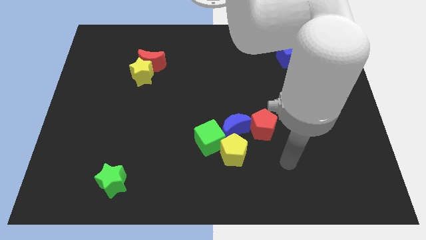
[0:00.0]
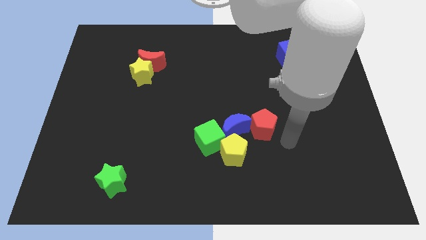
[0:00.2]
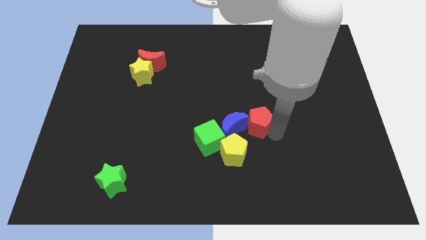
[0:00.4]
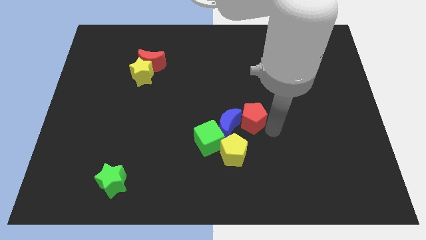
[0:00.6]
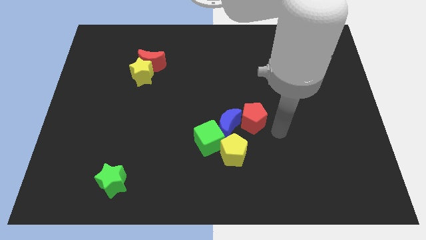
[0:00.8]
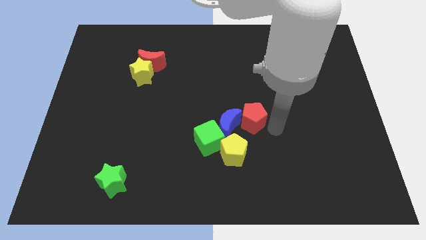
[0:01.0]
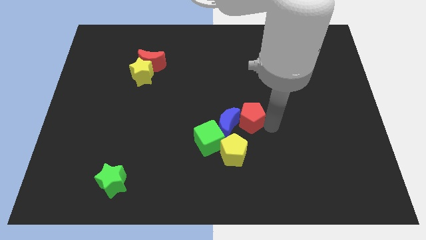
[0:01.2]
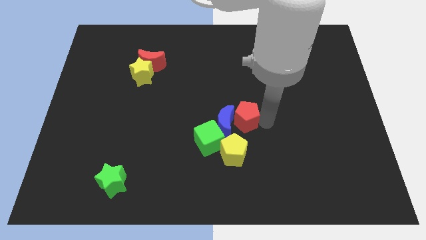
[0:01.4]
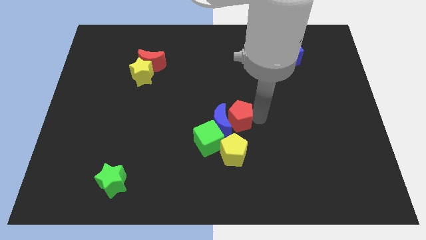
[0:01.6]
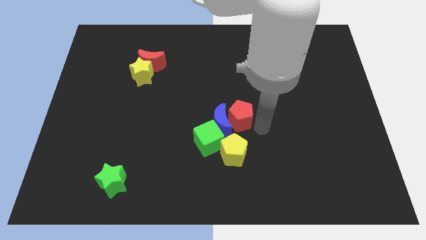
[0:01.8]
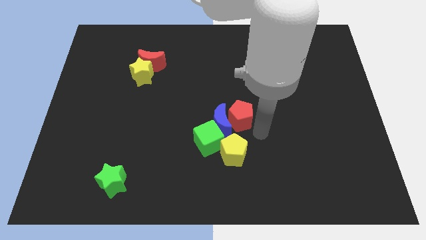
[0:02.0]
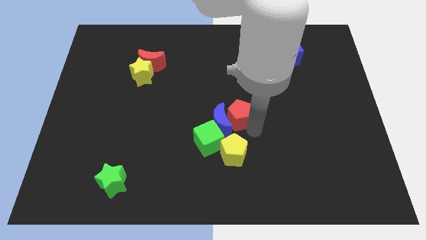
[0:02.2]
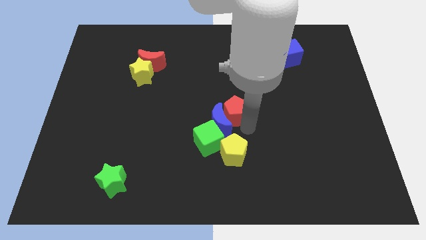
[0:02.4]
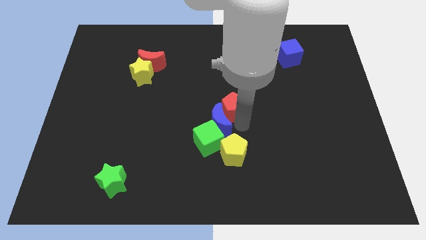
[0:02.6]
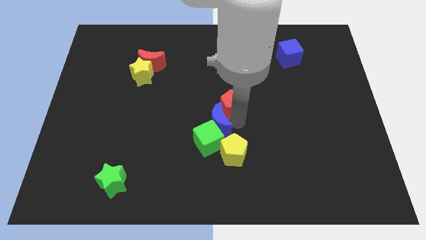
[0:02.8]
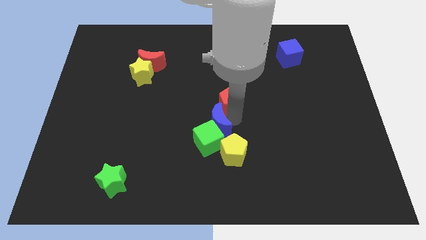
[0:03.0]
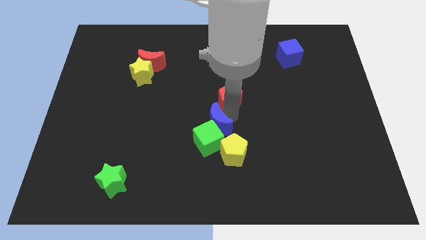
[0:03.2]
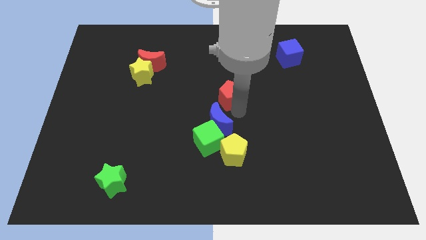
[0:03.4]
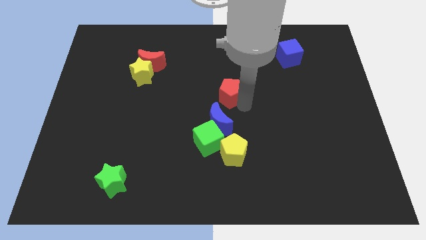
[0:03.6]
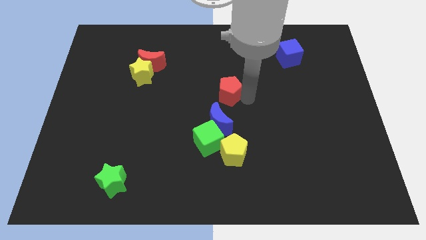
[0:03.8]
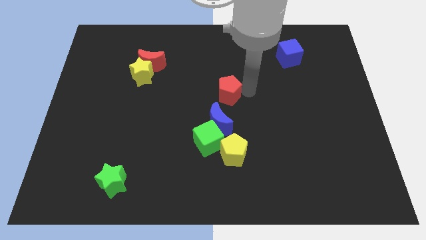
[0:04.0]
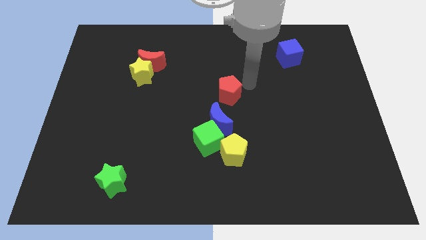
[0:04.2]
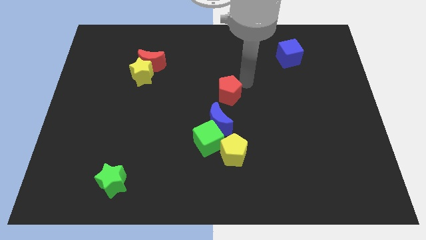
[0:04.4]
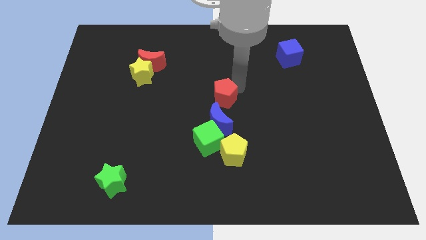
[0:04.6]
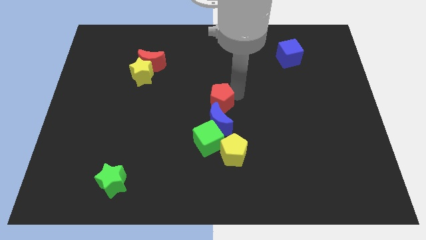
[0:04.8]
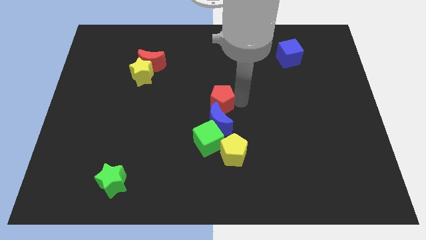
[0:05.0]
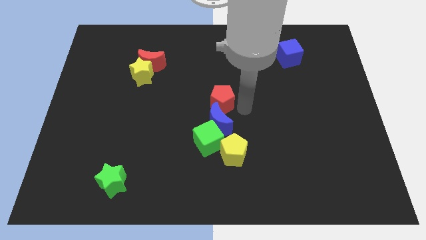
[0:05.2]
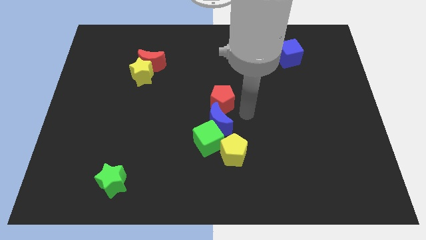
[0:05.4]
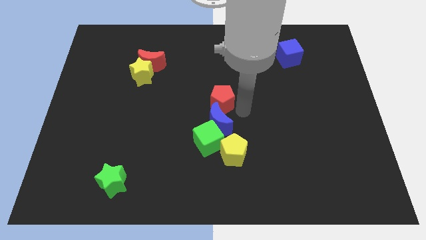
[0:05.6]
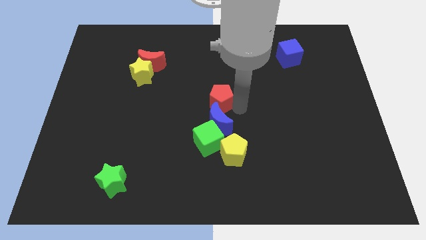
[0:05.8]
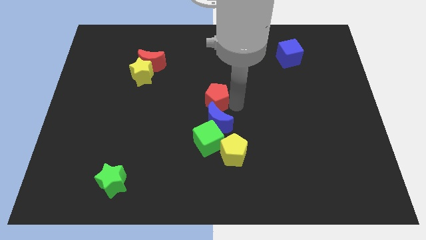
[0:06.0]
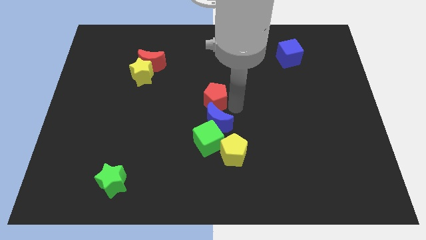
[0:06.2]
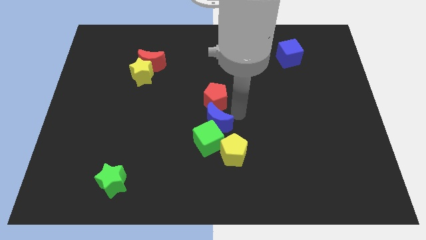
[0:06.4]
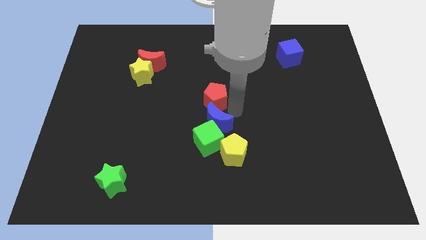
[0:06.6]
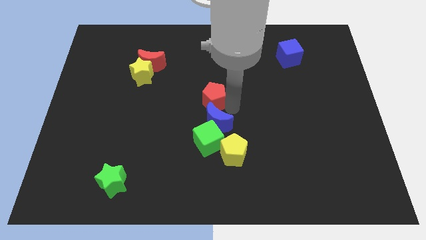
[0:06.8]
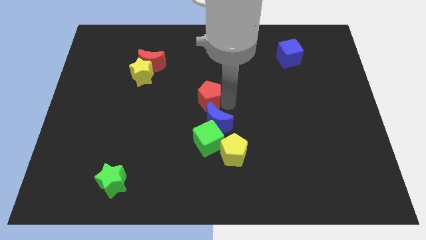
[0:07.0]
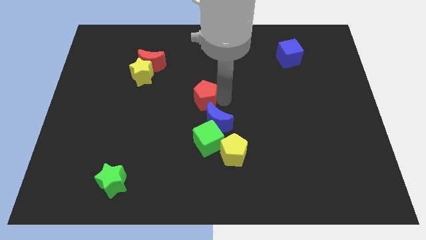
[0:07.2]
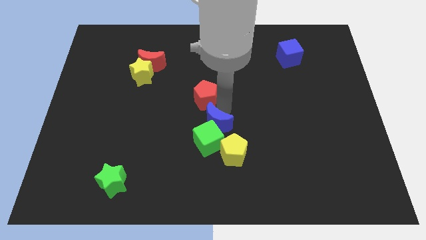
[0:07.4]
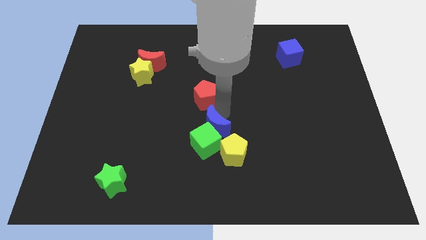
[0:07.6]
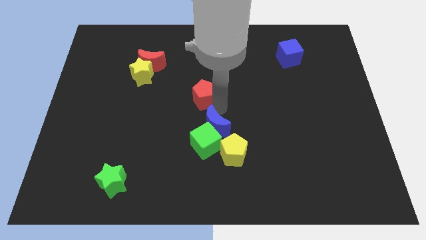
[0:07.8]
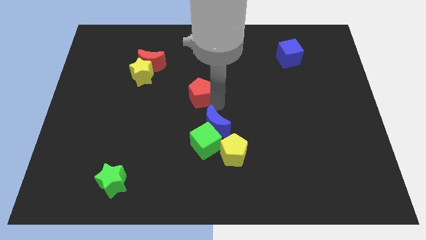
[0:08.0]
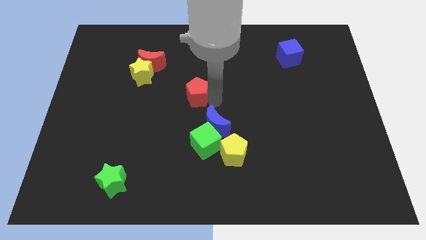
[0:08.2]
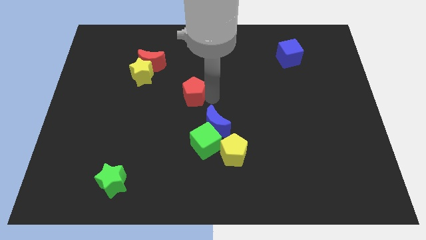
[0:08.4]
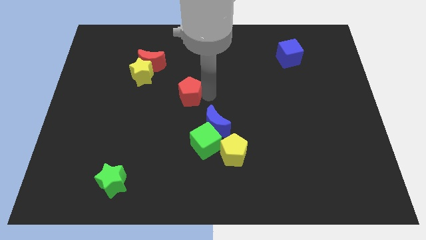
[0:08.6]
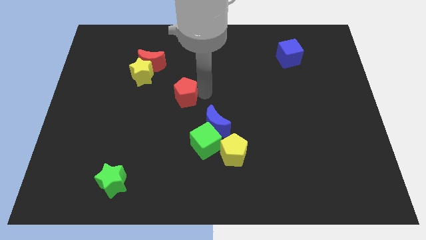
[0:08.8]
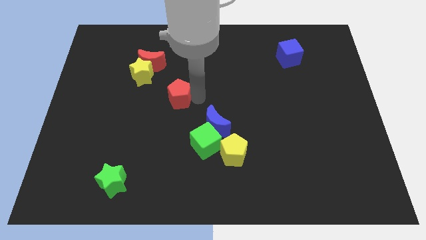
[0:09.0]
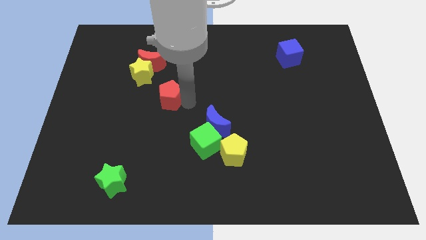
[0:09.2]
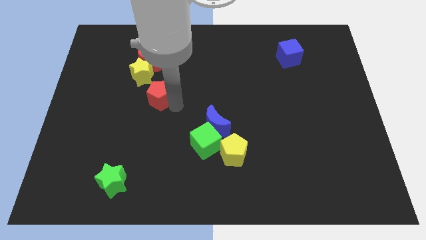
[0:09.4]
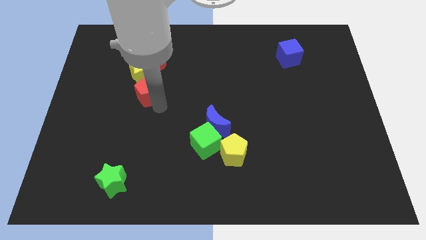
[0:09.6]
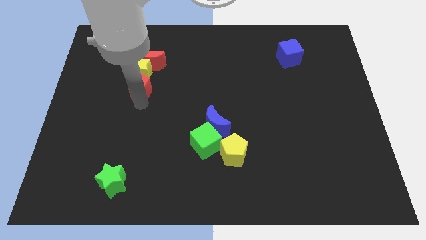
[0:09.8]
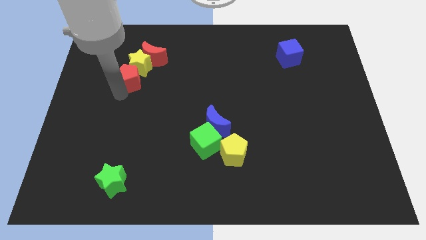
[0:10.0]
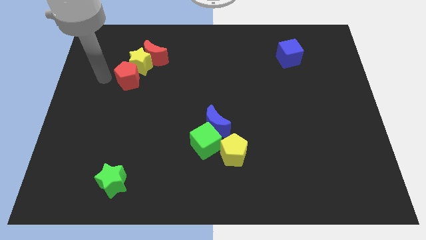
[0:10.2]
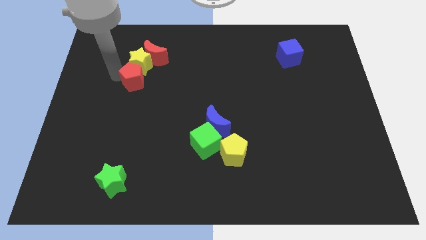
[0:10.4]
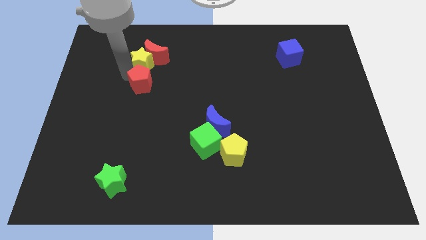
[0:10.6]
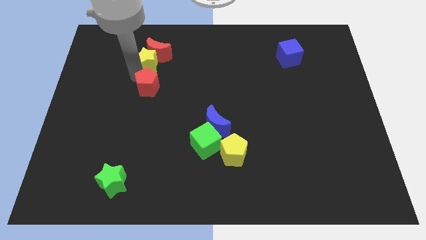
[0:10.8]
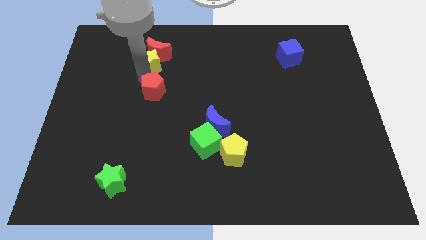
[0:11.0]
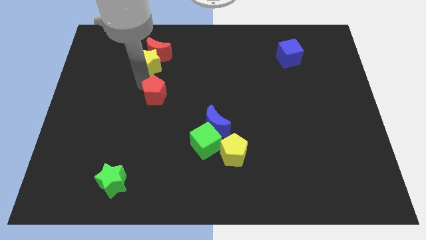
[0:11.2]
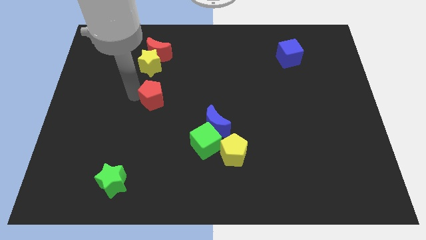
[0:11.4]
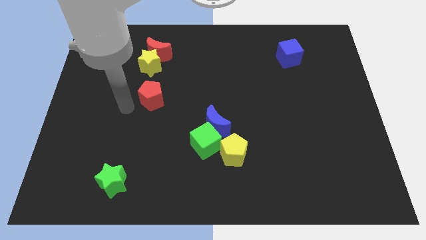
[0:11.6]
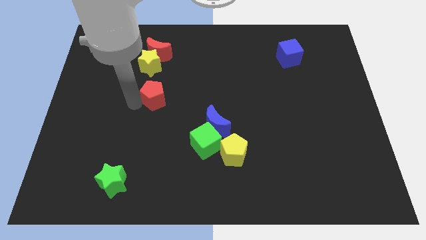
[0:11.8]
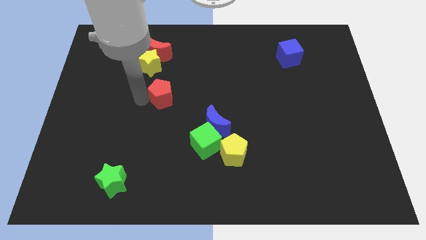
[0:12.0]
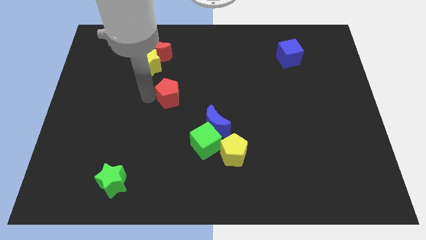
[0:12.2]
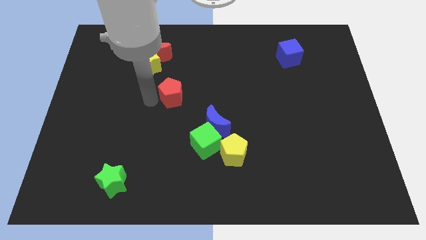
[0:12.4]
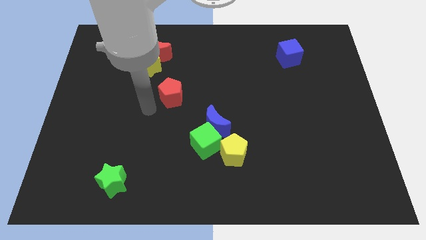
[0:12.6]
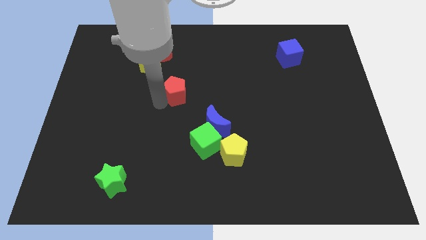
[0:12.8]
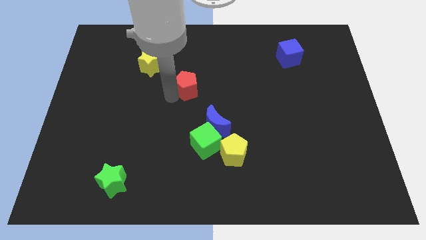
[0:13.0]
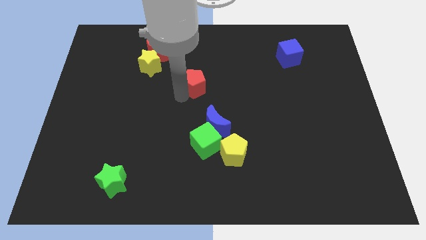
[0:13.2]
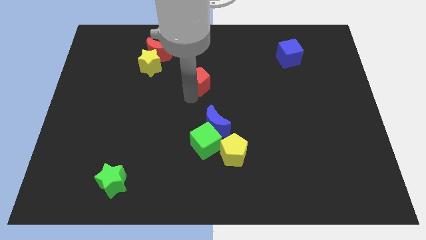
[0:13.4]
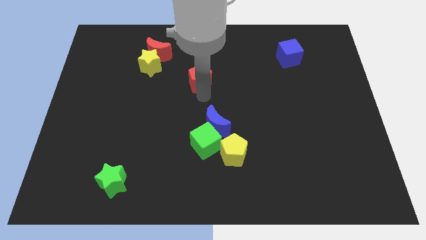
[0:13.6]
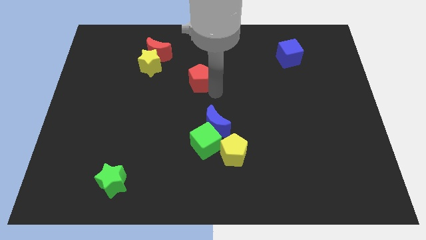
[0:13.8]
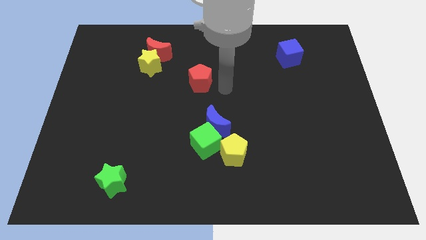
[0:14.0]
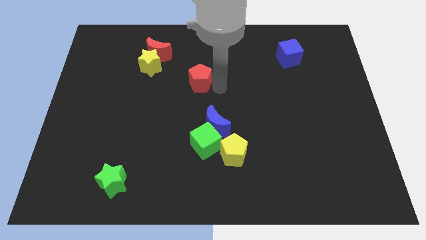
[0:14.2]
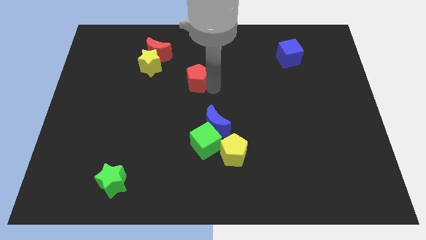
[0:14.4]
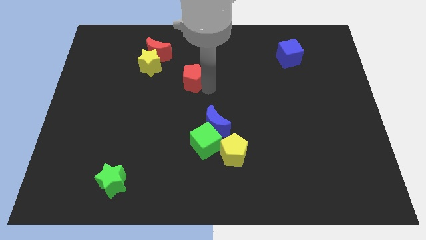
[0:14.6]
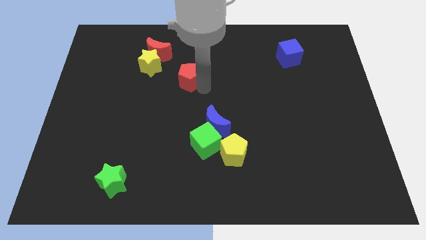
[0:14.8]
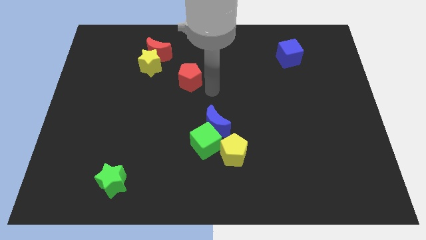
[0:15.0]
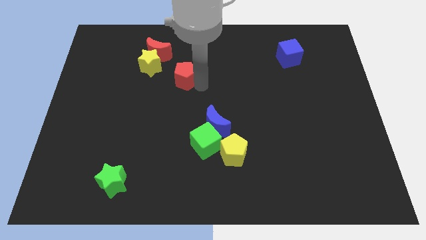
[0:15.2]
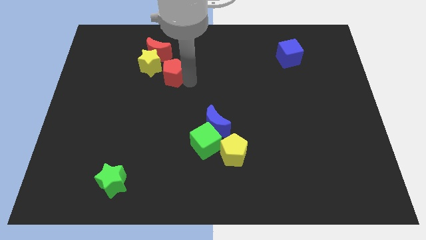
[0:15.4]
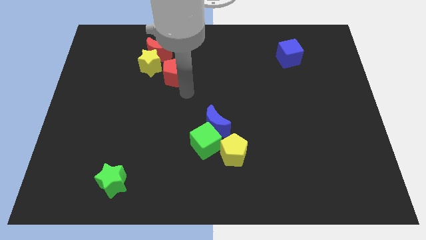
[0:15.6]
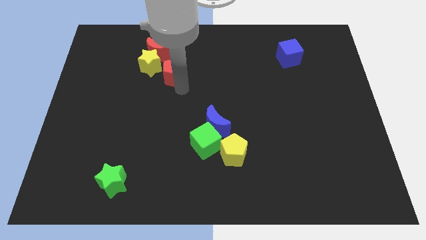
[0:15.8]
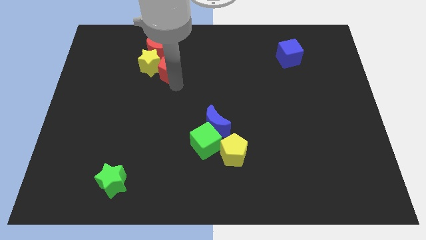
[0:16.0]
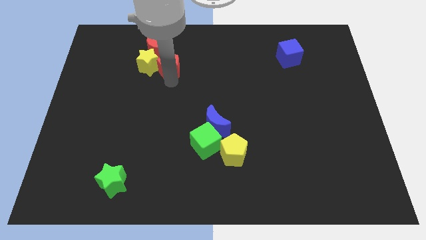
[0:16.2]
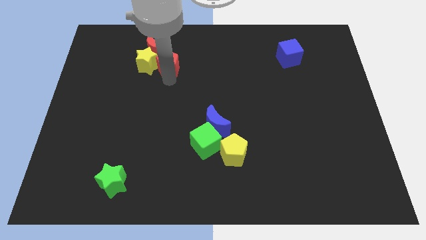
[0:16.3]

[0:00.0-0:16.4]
move the red pentagon to the red moon
